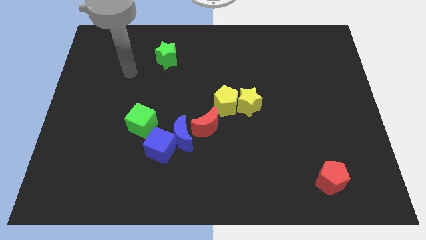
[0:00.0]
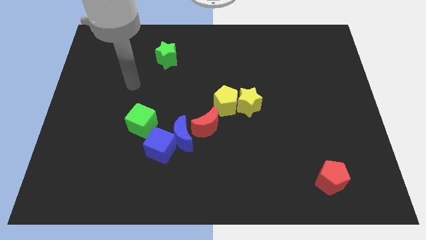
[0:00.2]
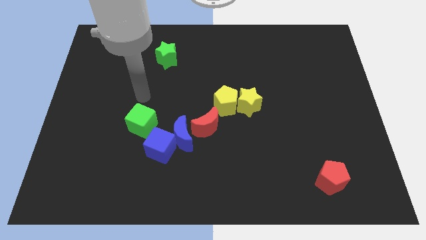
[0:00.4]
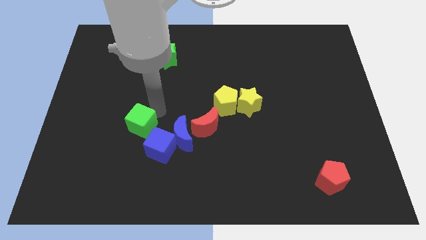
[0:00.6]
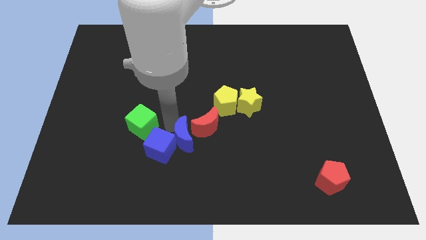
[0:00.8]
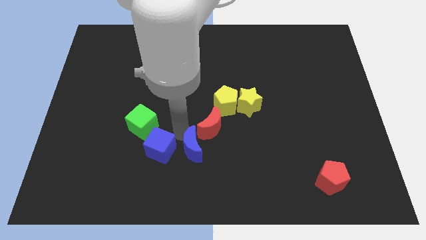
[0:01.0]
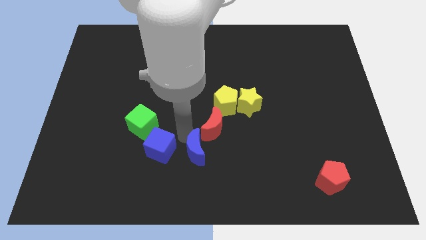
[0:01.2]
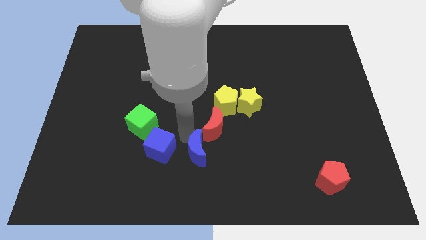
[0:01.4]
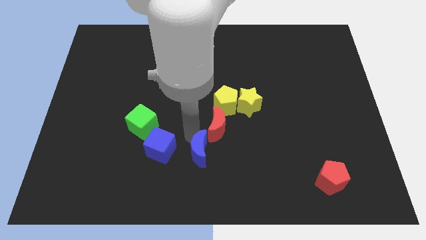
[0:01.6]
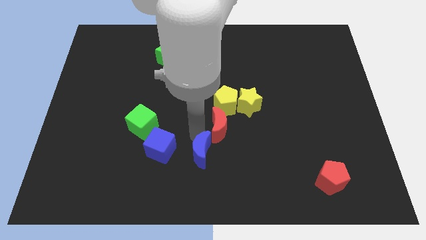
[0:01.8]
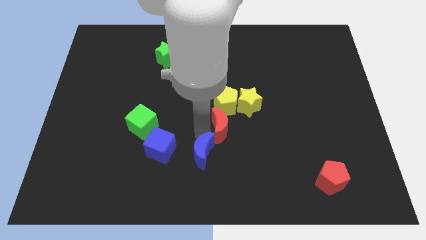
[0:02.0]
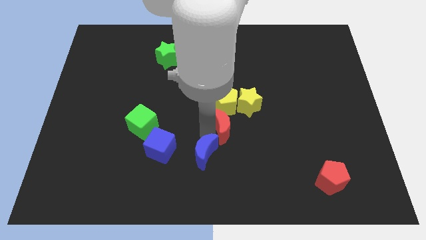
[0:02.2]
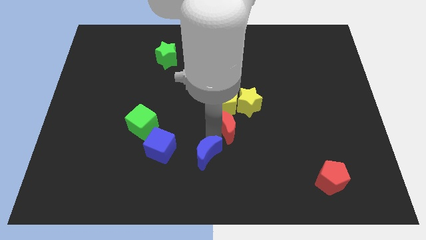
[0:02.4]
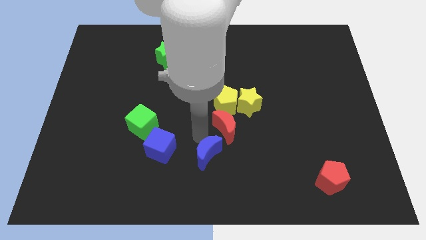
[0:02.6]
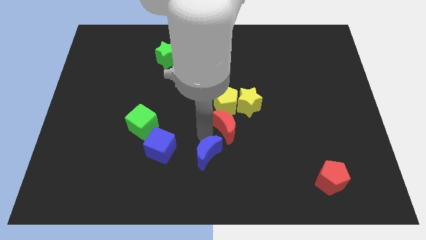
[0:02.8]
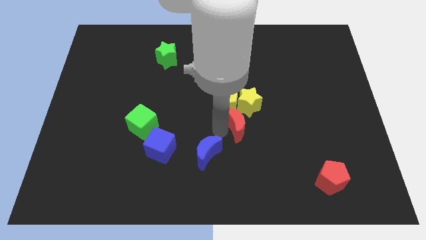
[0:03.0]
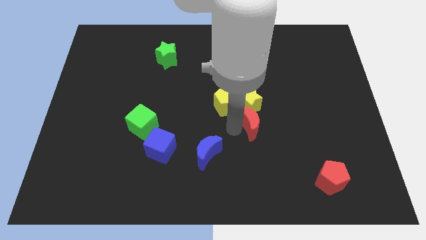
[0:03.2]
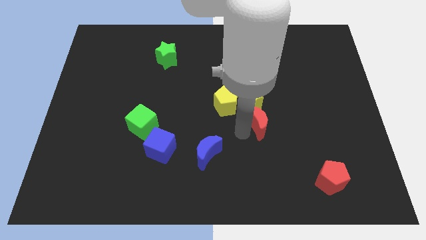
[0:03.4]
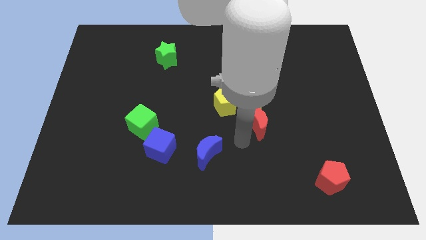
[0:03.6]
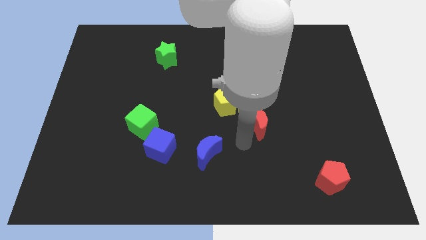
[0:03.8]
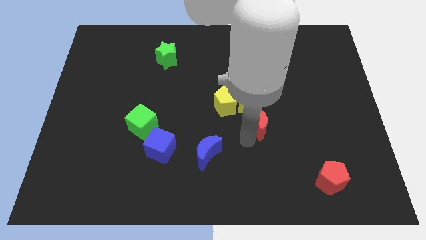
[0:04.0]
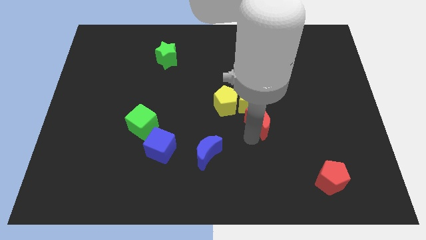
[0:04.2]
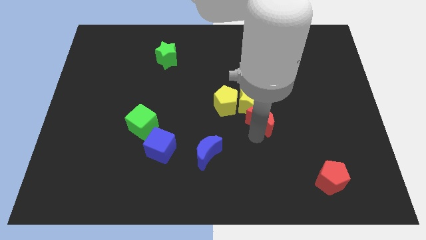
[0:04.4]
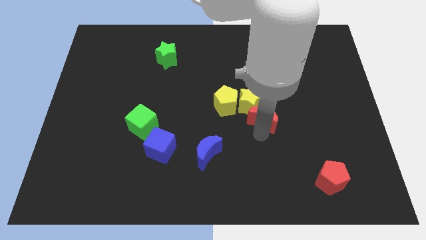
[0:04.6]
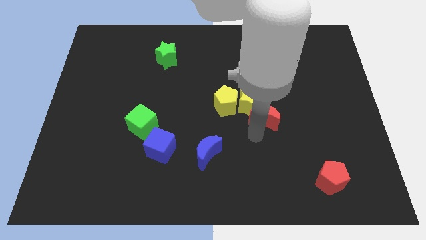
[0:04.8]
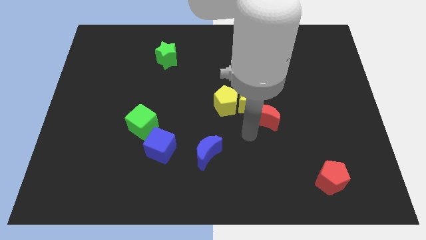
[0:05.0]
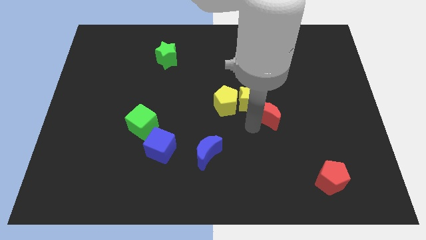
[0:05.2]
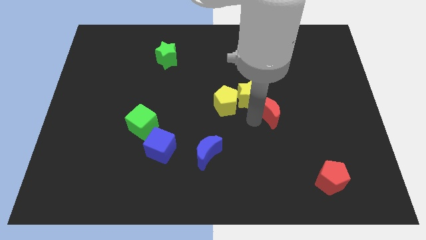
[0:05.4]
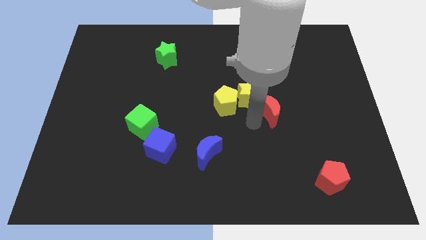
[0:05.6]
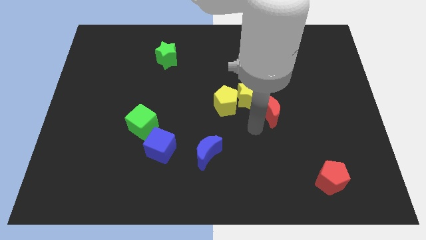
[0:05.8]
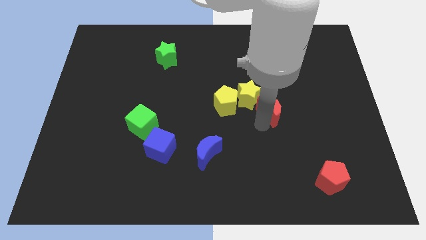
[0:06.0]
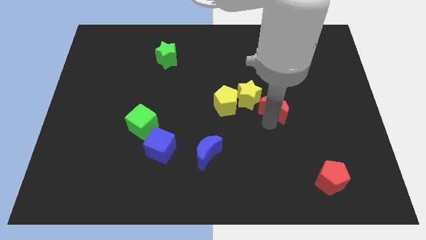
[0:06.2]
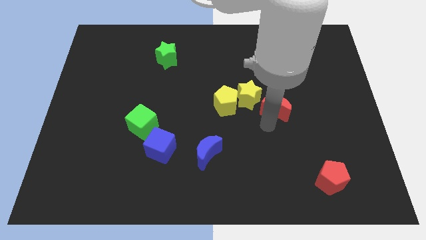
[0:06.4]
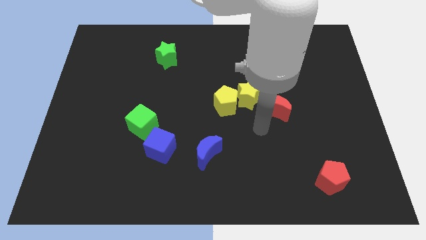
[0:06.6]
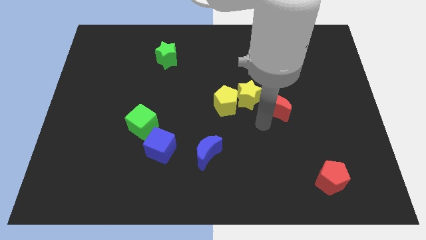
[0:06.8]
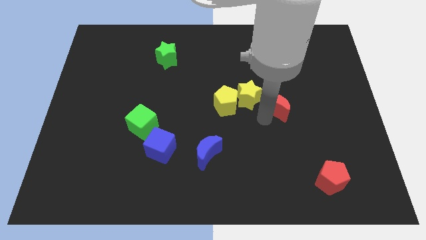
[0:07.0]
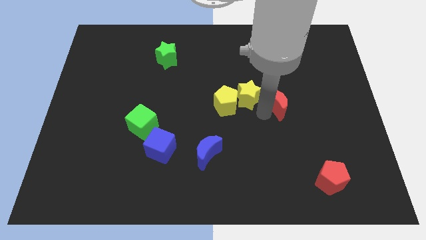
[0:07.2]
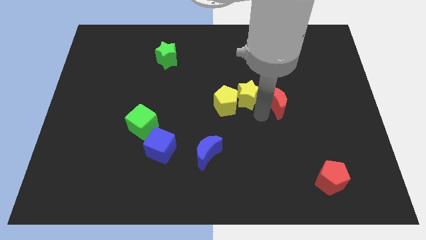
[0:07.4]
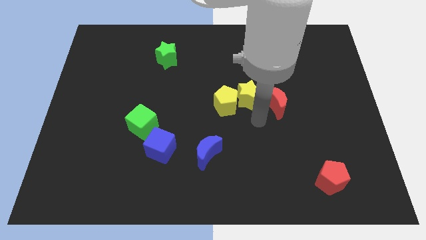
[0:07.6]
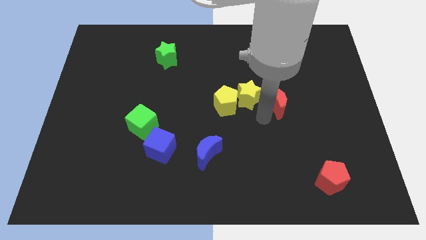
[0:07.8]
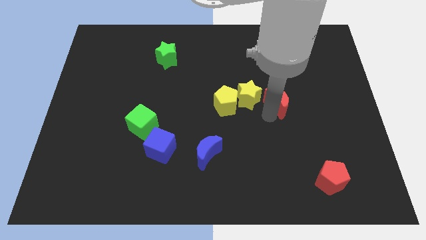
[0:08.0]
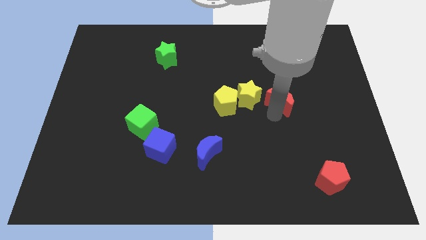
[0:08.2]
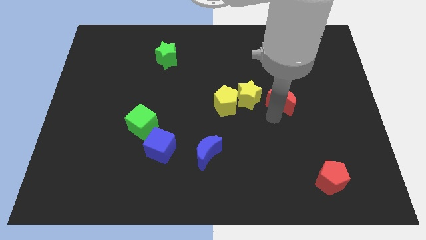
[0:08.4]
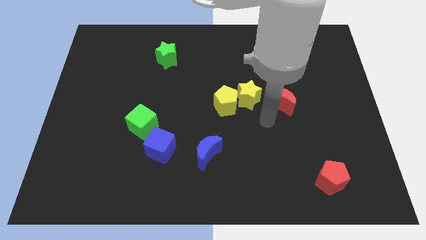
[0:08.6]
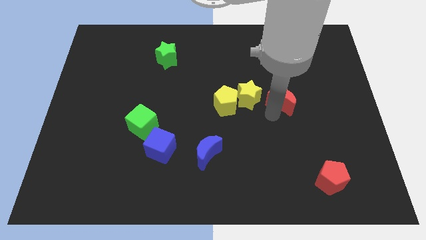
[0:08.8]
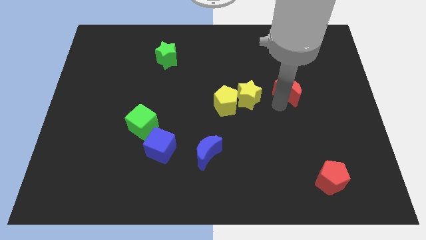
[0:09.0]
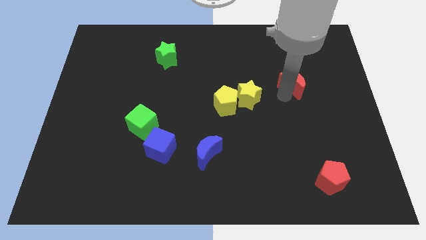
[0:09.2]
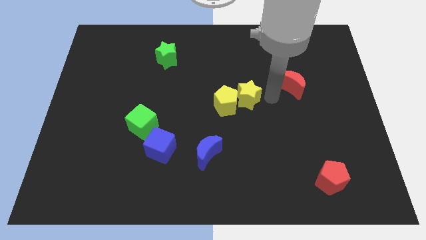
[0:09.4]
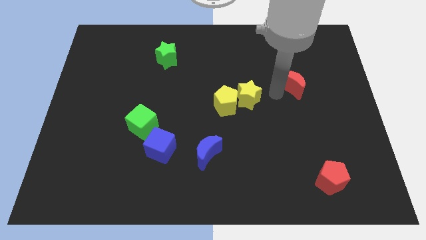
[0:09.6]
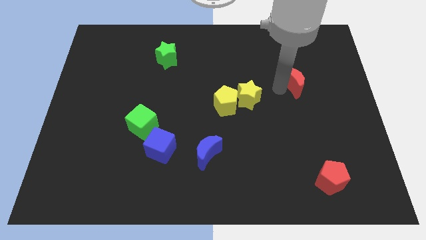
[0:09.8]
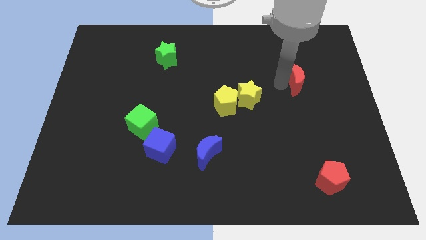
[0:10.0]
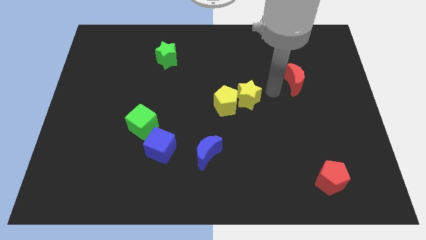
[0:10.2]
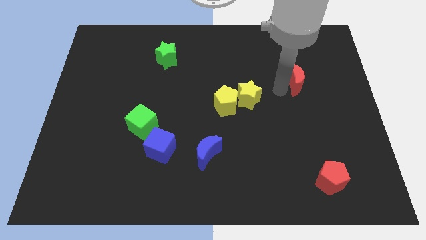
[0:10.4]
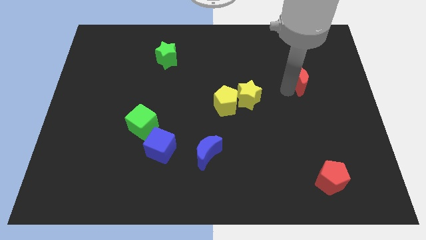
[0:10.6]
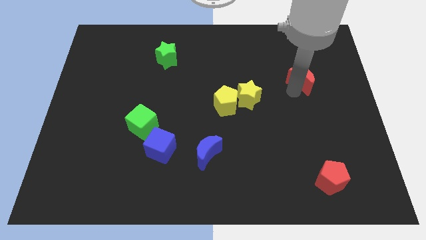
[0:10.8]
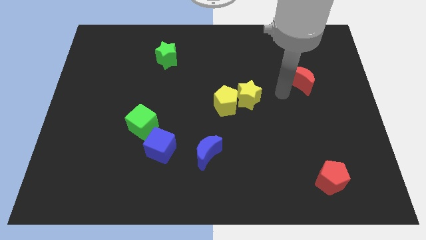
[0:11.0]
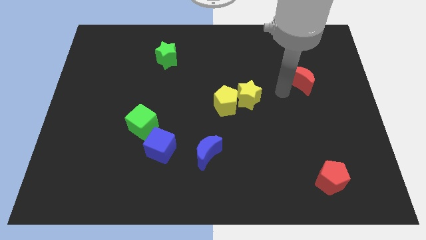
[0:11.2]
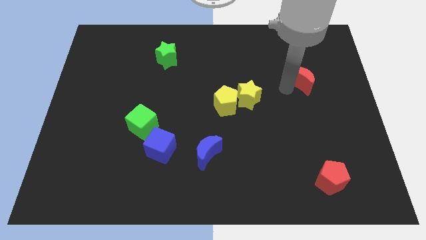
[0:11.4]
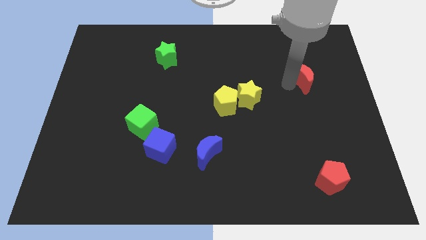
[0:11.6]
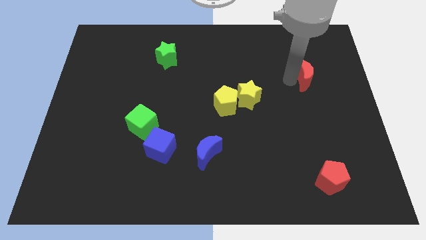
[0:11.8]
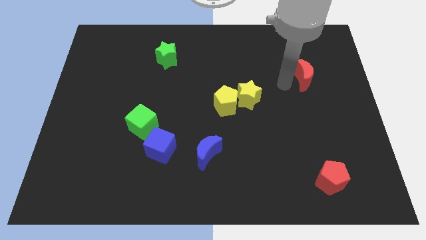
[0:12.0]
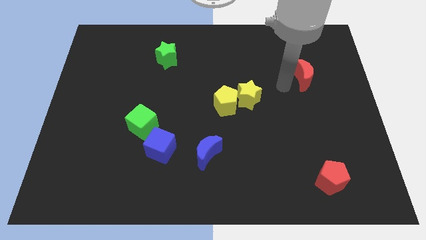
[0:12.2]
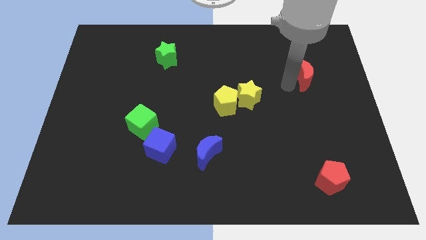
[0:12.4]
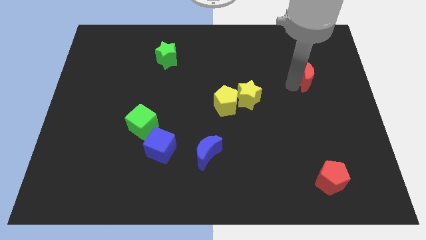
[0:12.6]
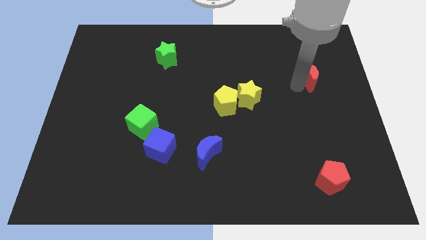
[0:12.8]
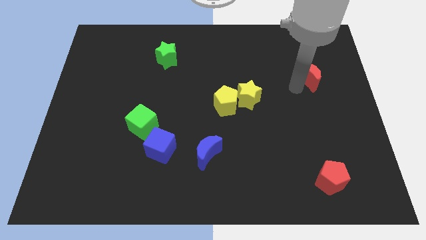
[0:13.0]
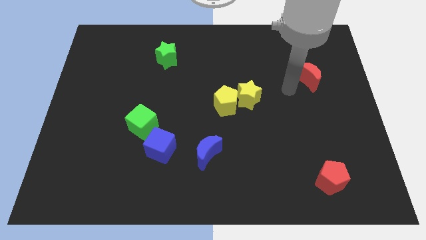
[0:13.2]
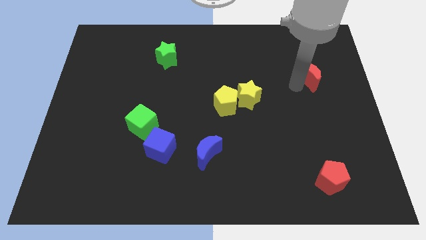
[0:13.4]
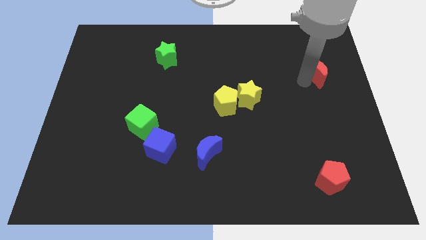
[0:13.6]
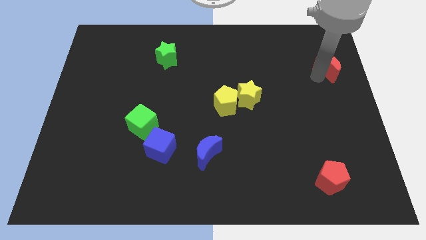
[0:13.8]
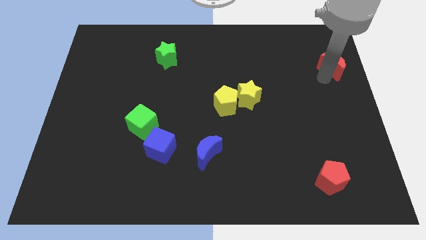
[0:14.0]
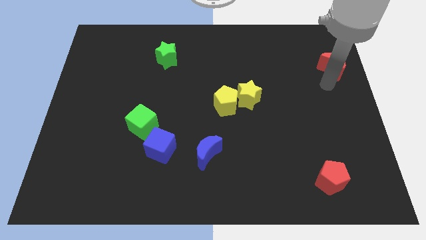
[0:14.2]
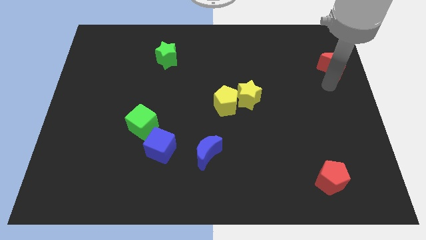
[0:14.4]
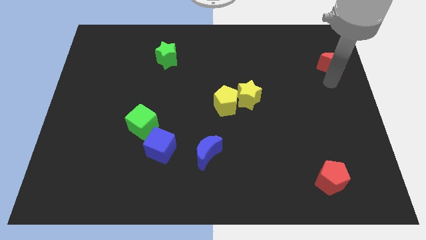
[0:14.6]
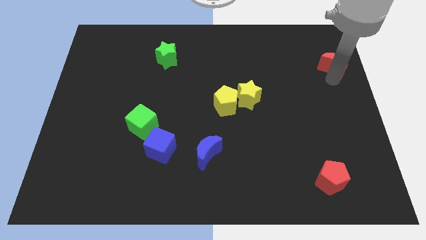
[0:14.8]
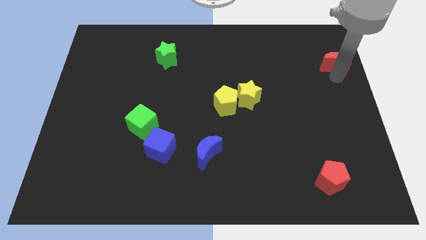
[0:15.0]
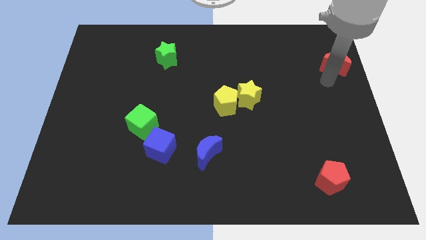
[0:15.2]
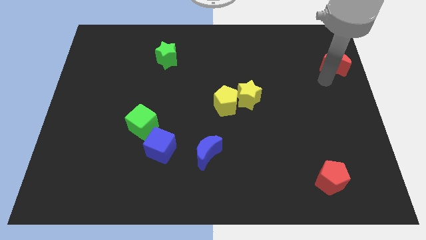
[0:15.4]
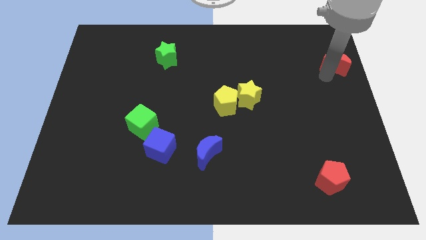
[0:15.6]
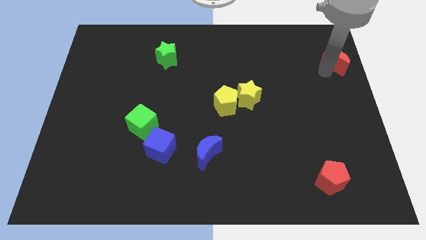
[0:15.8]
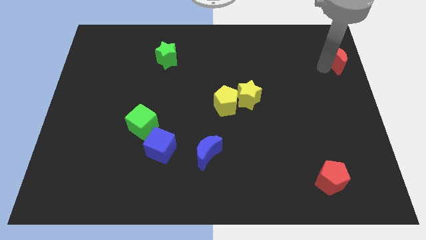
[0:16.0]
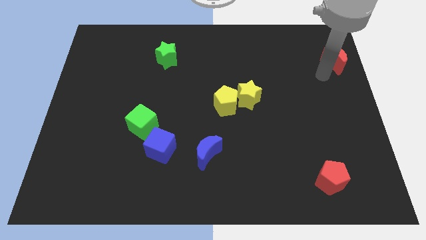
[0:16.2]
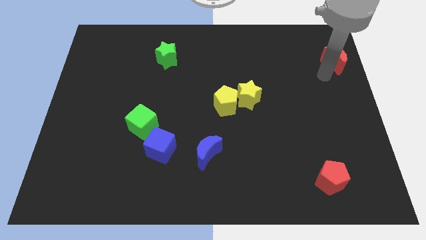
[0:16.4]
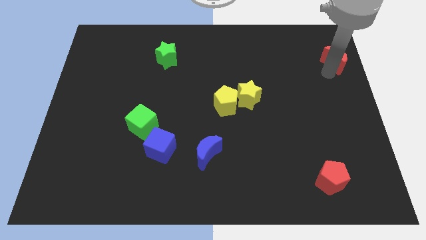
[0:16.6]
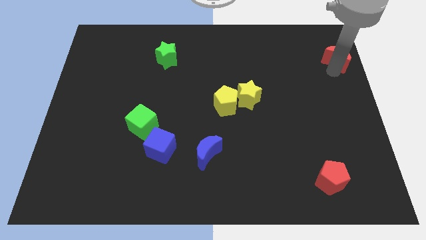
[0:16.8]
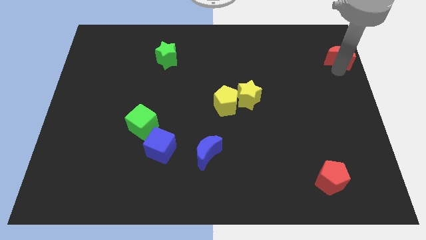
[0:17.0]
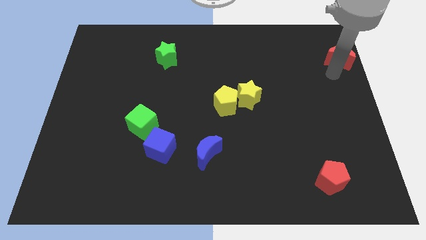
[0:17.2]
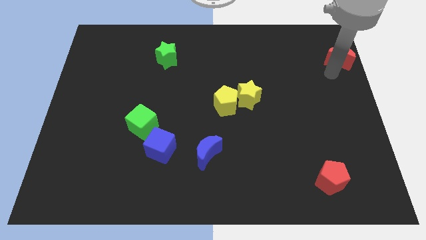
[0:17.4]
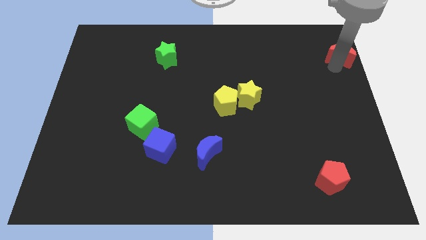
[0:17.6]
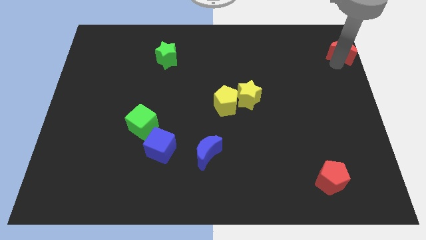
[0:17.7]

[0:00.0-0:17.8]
move the red moon to the upper right corner
